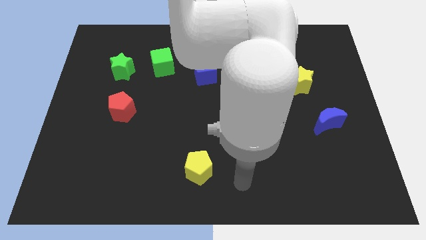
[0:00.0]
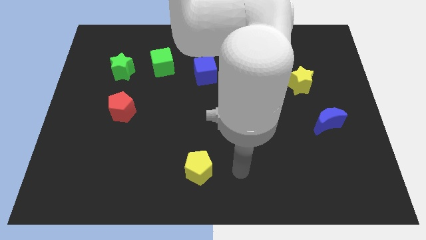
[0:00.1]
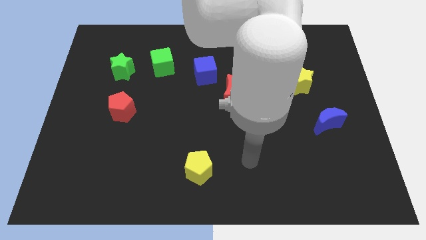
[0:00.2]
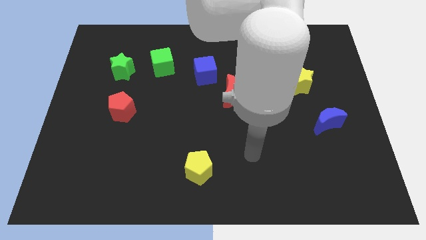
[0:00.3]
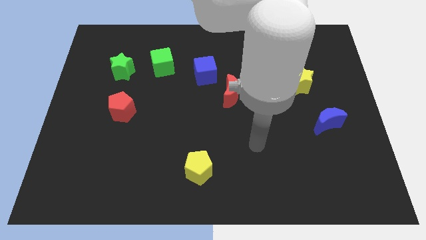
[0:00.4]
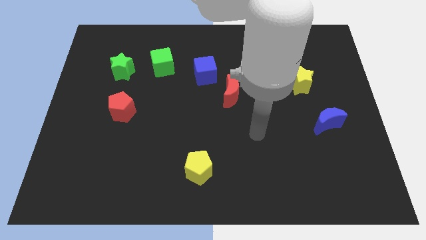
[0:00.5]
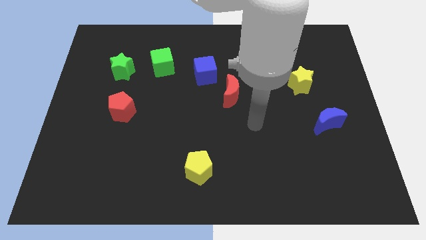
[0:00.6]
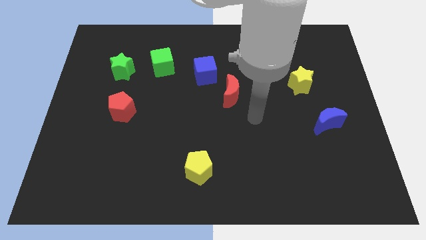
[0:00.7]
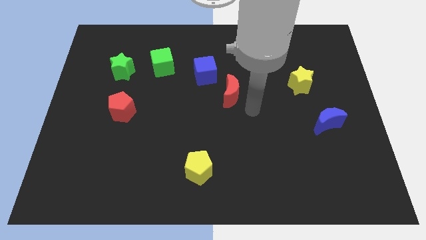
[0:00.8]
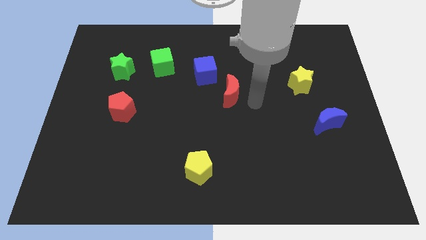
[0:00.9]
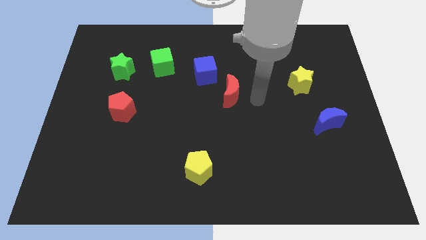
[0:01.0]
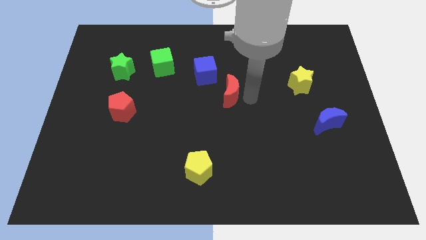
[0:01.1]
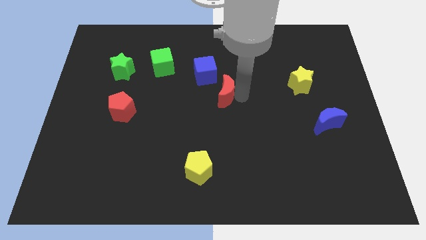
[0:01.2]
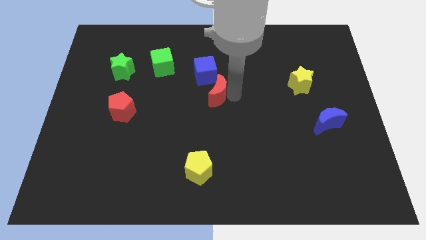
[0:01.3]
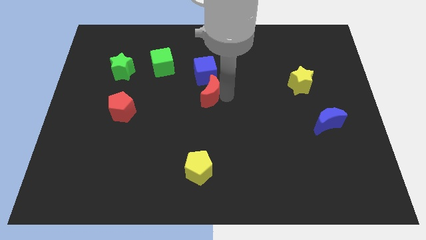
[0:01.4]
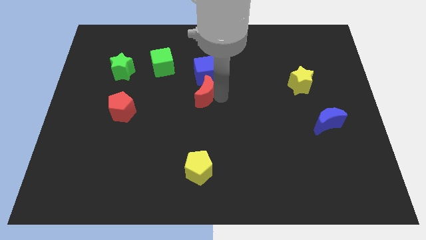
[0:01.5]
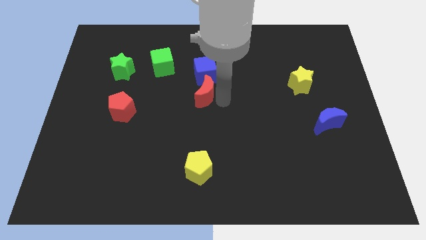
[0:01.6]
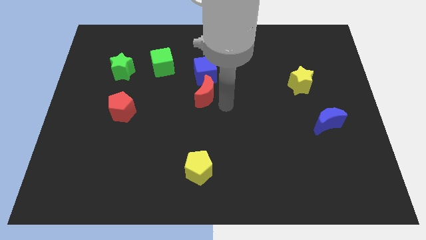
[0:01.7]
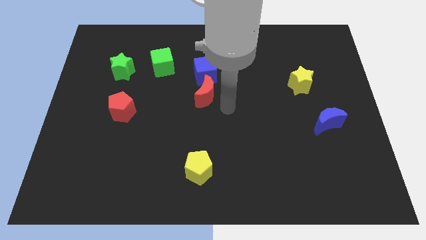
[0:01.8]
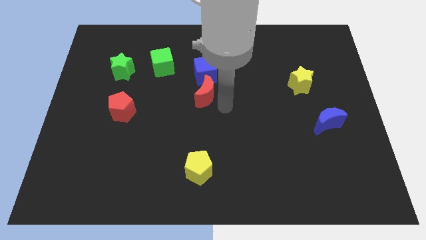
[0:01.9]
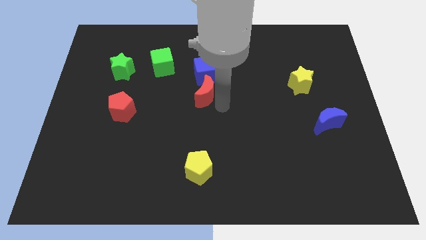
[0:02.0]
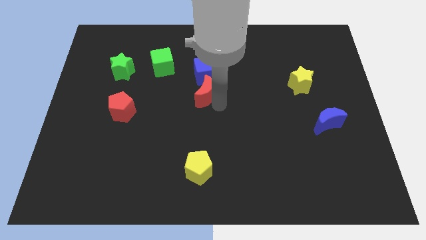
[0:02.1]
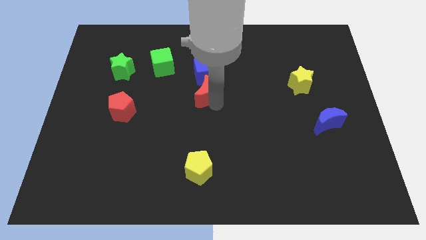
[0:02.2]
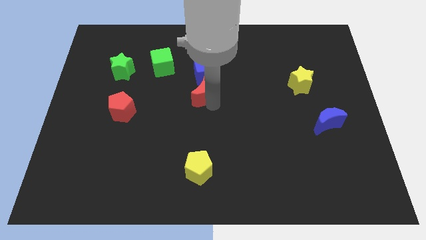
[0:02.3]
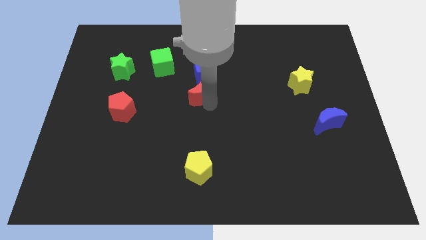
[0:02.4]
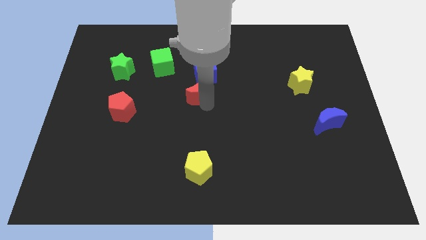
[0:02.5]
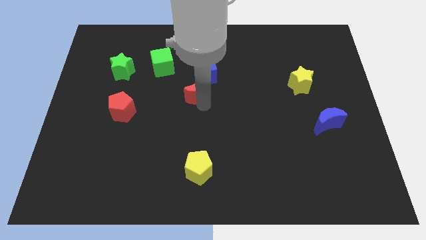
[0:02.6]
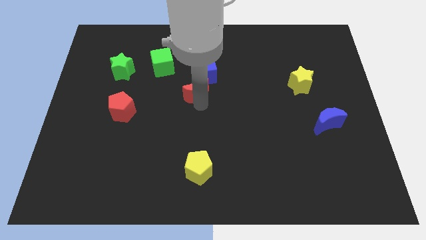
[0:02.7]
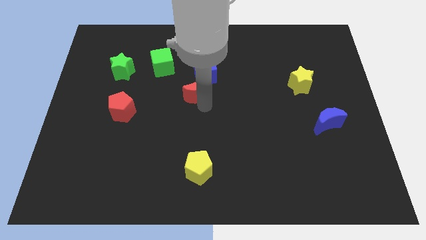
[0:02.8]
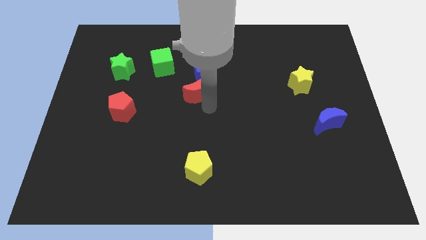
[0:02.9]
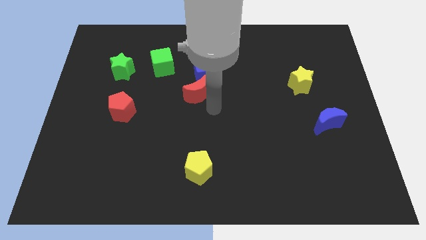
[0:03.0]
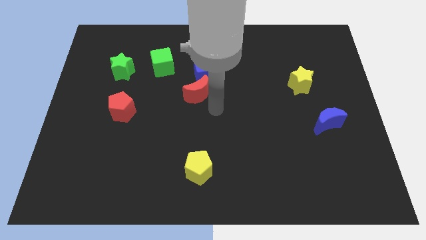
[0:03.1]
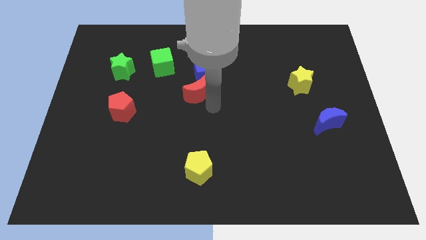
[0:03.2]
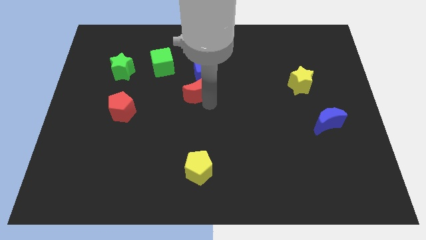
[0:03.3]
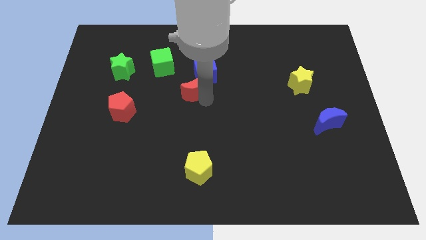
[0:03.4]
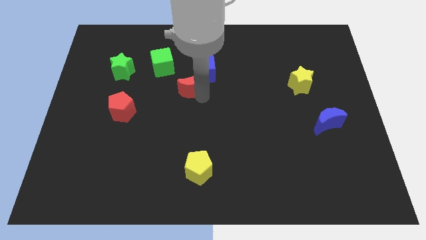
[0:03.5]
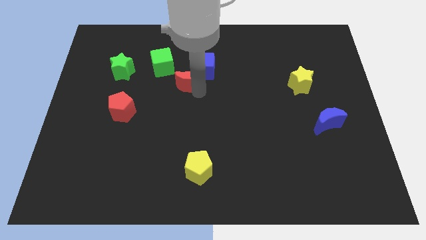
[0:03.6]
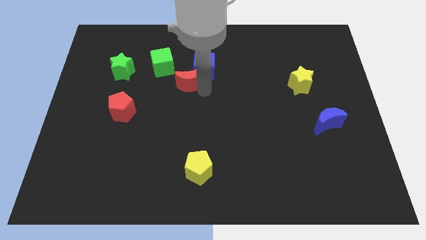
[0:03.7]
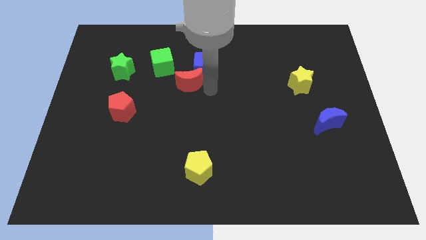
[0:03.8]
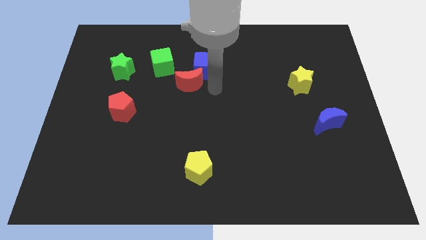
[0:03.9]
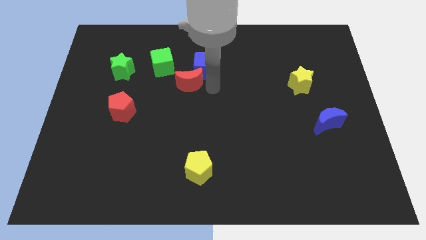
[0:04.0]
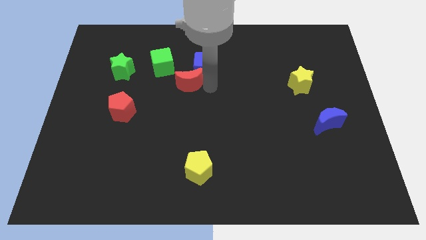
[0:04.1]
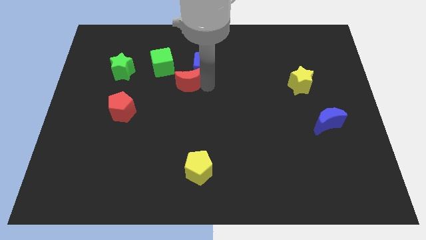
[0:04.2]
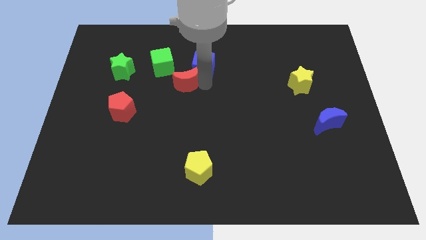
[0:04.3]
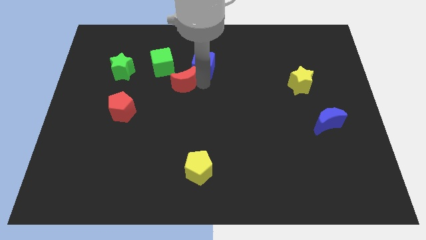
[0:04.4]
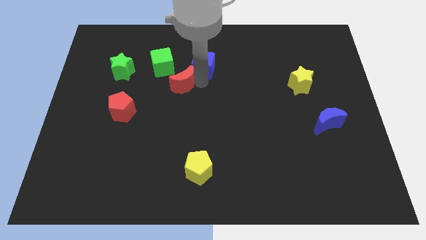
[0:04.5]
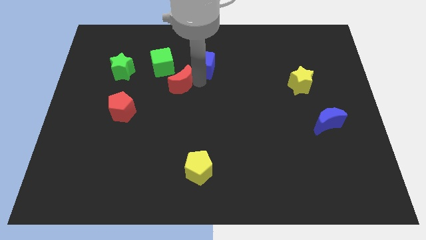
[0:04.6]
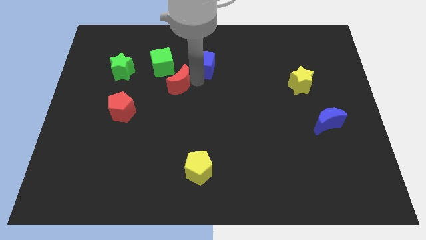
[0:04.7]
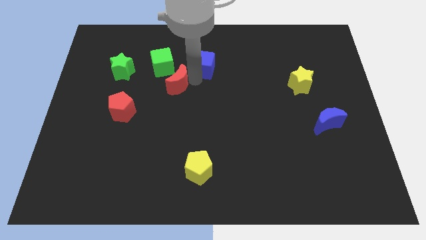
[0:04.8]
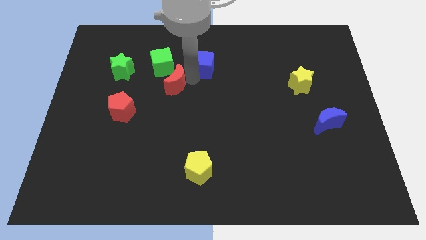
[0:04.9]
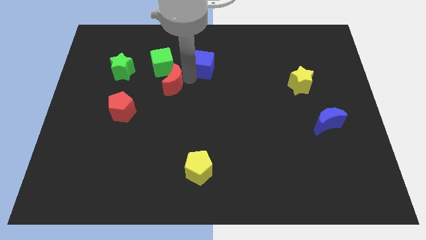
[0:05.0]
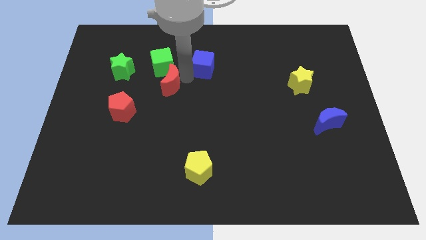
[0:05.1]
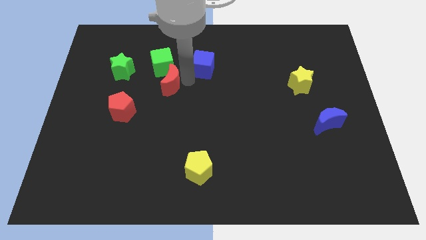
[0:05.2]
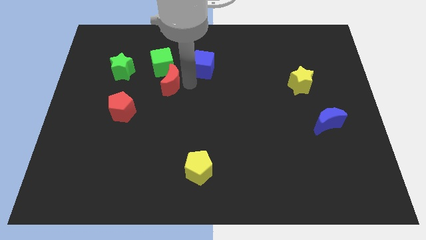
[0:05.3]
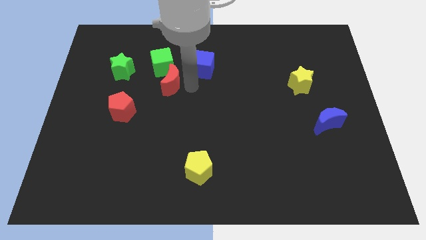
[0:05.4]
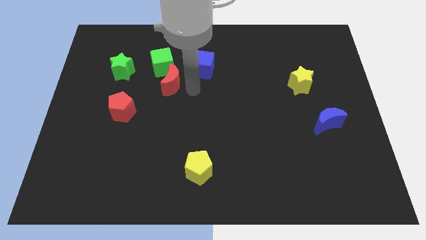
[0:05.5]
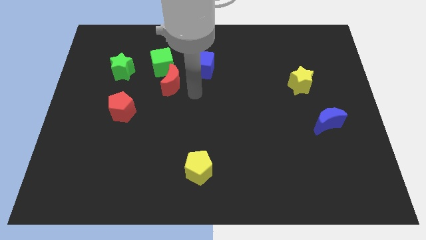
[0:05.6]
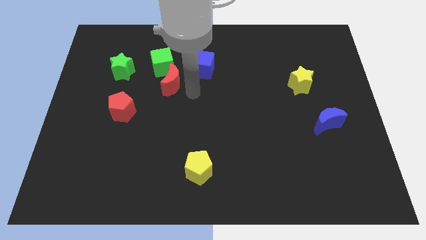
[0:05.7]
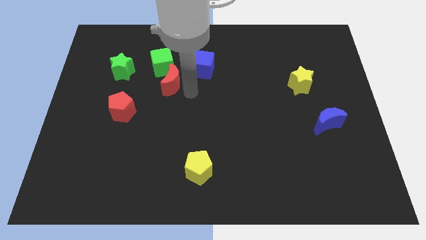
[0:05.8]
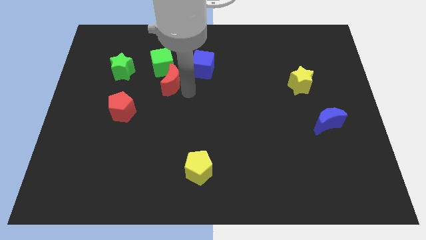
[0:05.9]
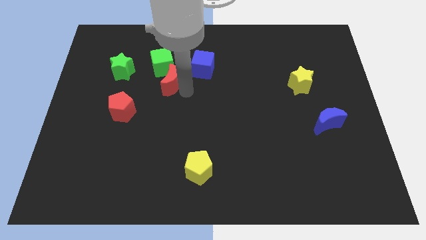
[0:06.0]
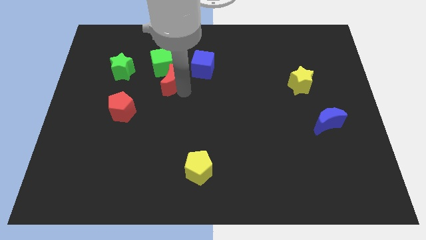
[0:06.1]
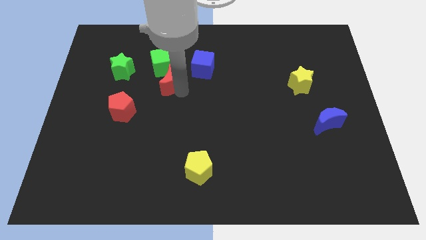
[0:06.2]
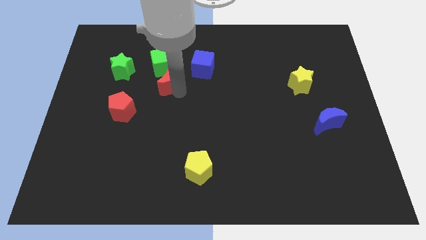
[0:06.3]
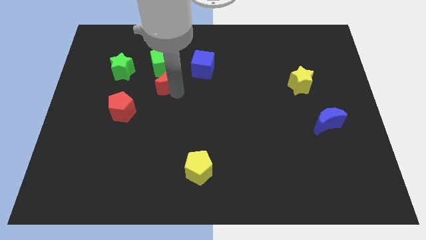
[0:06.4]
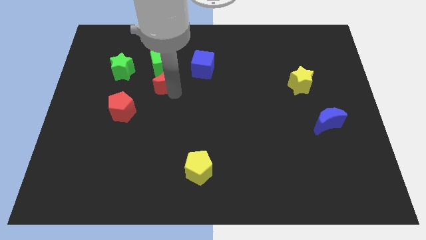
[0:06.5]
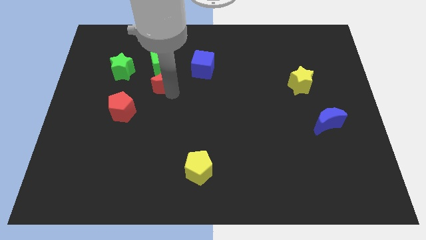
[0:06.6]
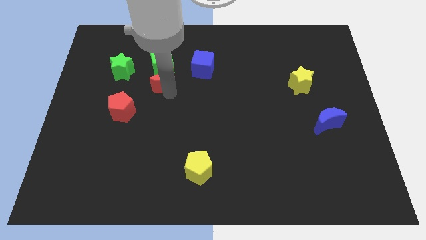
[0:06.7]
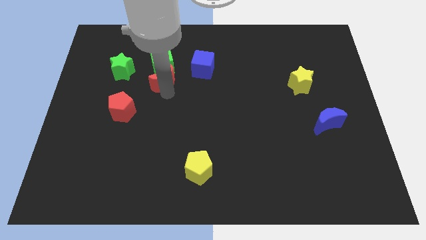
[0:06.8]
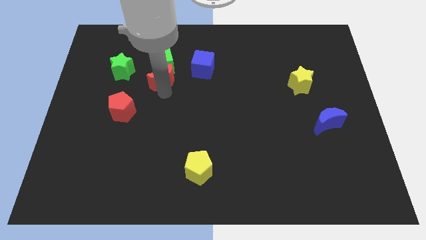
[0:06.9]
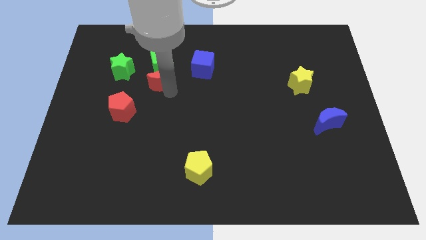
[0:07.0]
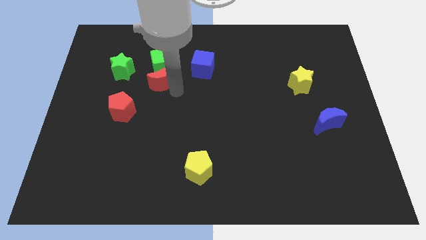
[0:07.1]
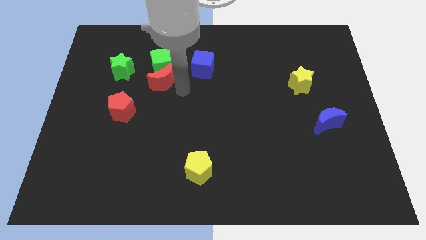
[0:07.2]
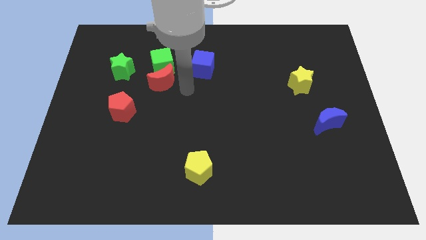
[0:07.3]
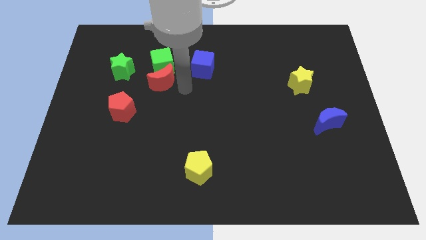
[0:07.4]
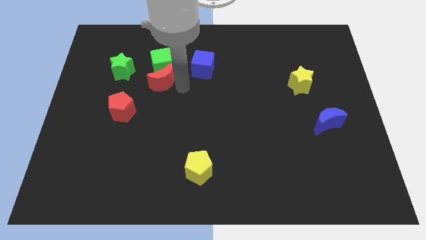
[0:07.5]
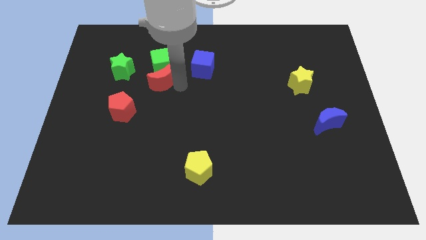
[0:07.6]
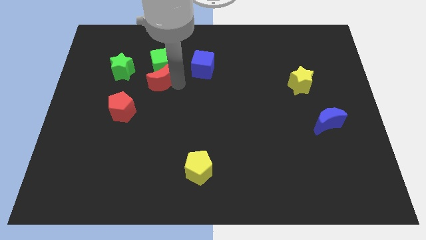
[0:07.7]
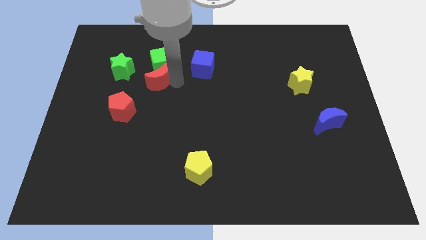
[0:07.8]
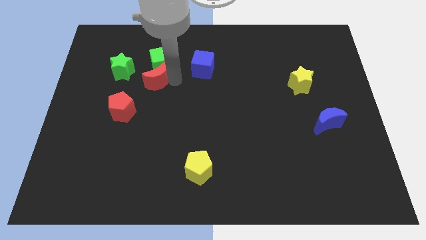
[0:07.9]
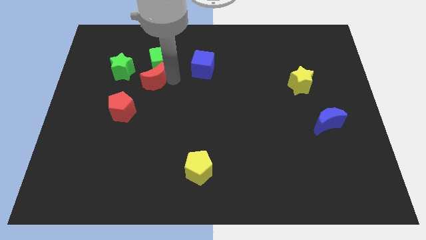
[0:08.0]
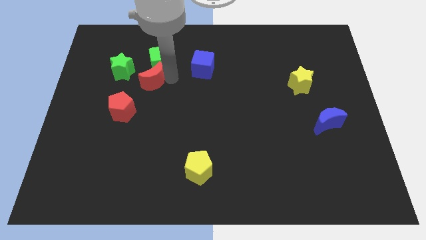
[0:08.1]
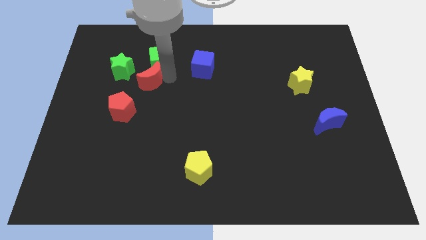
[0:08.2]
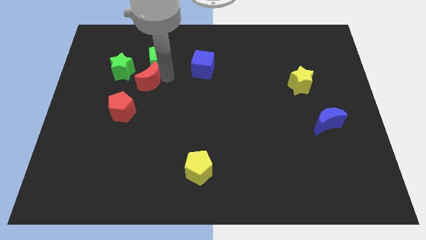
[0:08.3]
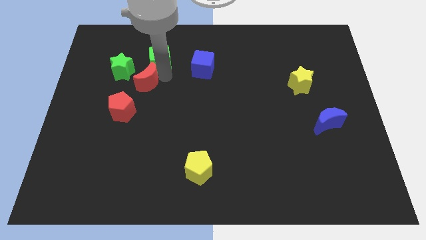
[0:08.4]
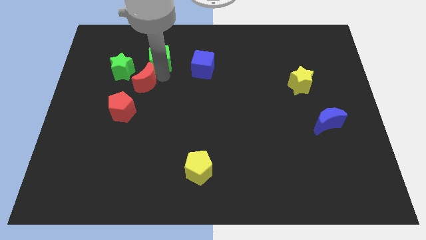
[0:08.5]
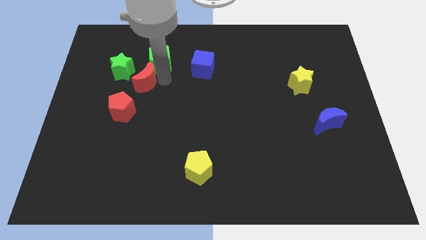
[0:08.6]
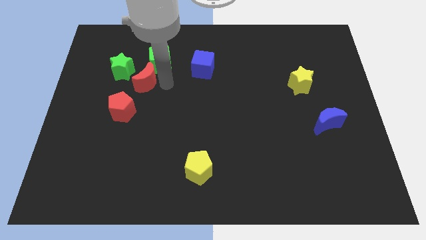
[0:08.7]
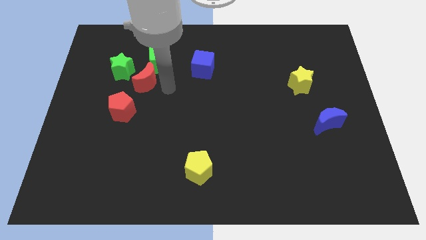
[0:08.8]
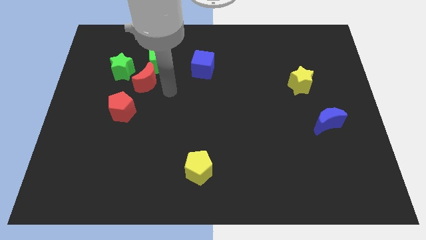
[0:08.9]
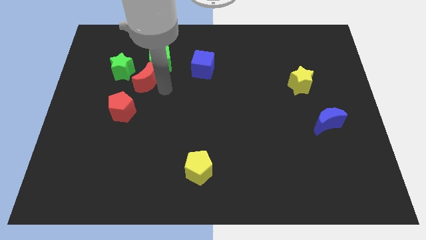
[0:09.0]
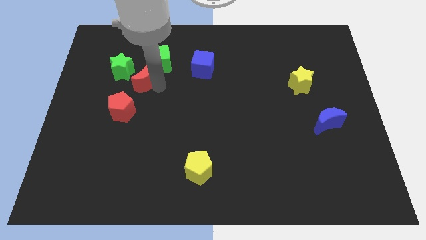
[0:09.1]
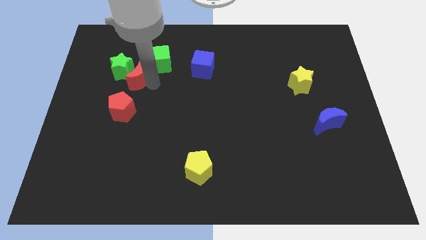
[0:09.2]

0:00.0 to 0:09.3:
put the red moon next to the green star
